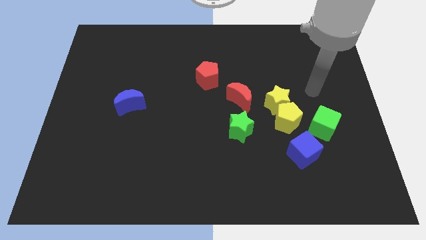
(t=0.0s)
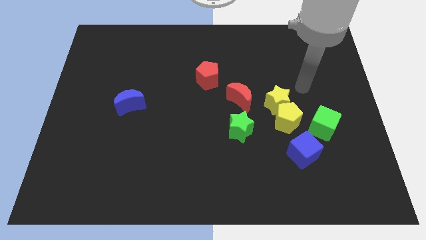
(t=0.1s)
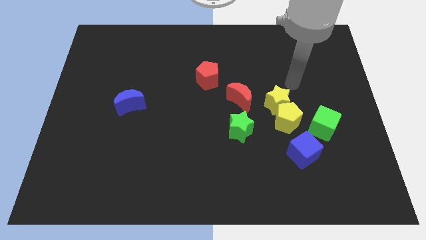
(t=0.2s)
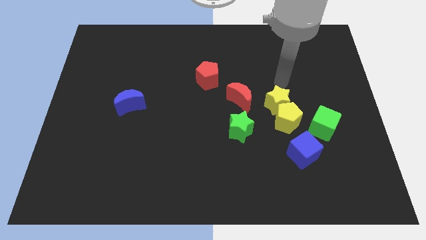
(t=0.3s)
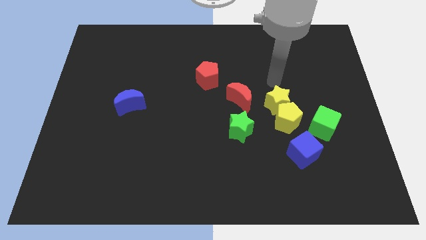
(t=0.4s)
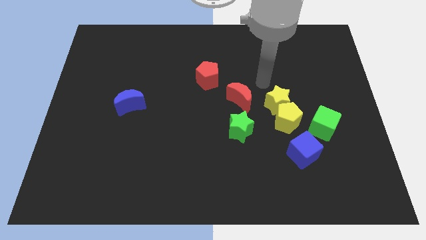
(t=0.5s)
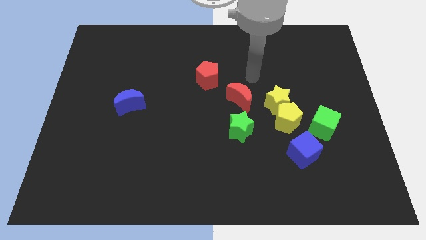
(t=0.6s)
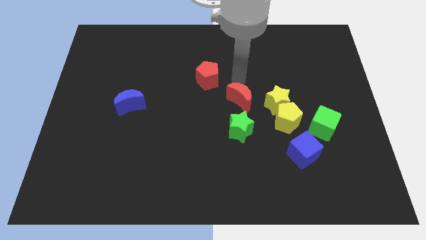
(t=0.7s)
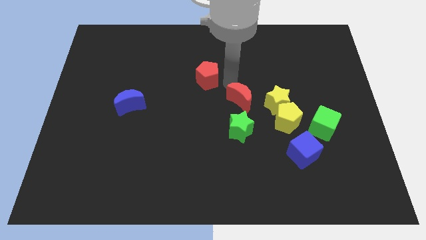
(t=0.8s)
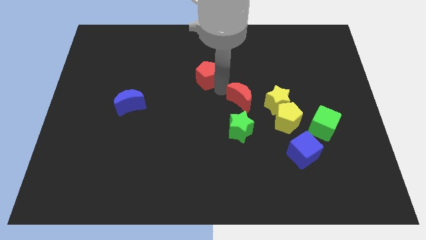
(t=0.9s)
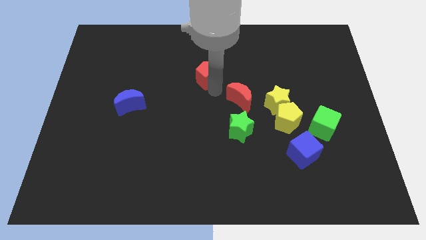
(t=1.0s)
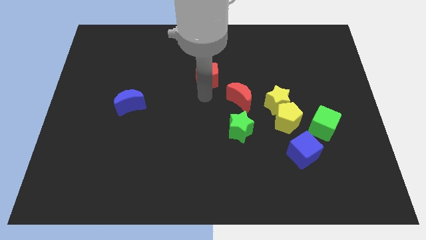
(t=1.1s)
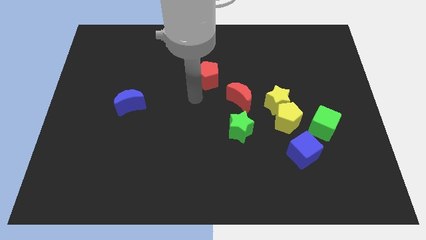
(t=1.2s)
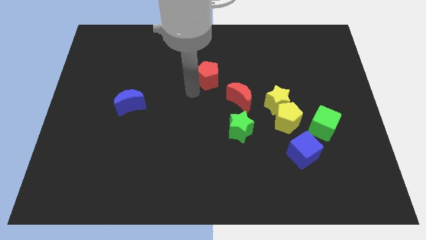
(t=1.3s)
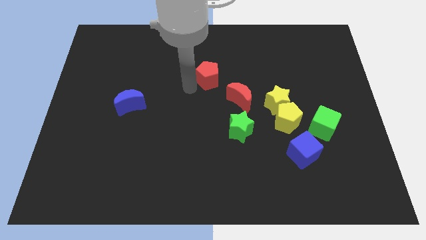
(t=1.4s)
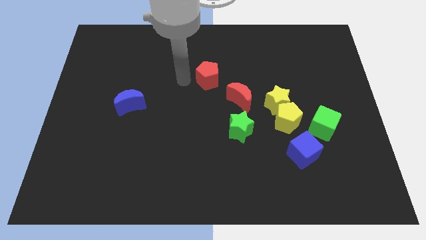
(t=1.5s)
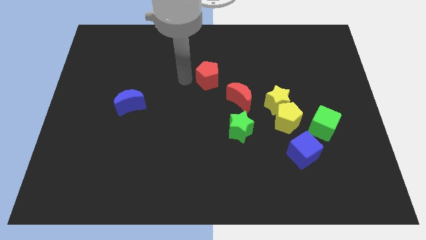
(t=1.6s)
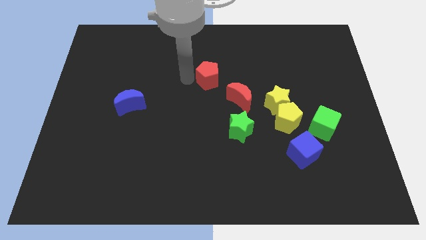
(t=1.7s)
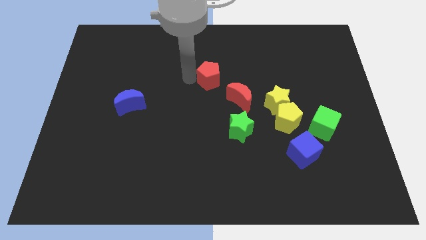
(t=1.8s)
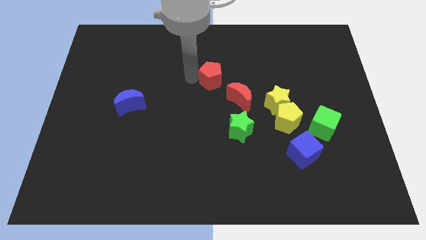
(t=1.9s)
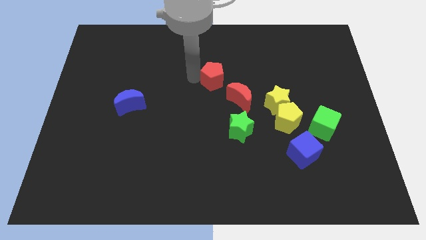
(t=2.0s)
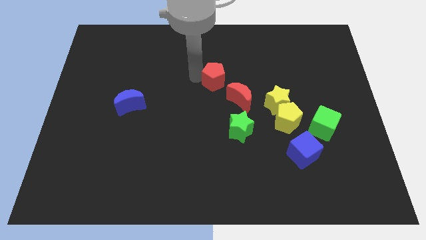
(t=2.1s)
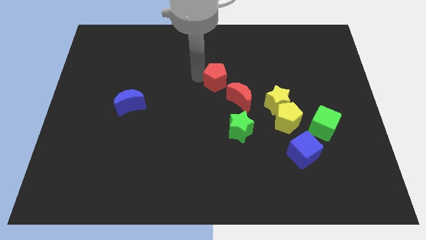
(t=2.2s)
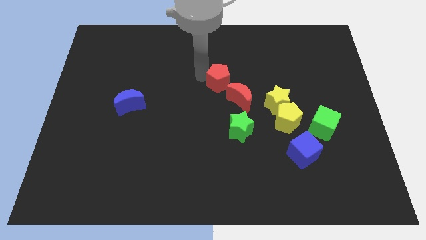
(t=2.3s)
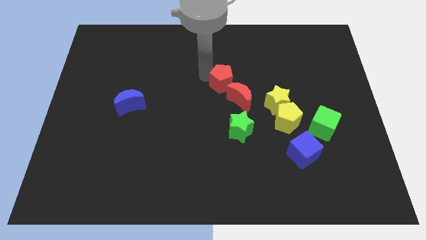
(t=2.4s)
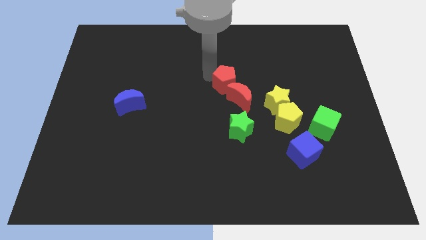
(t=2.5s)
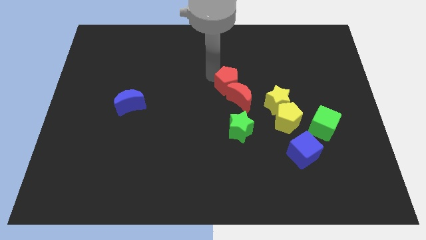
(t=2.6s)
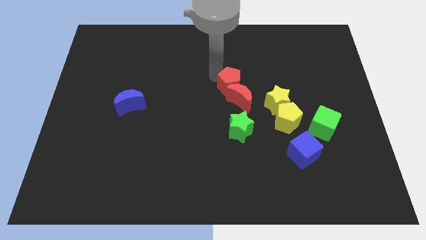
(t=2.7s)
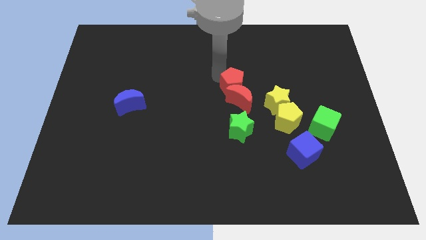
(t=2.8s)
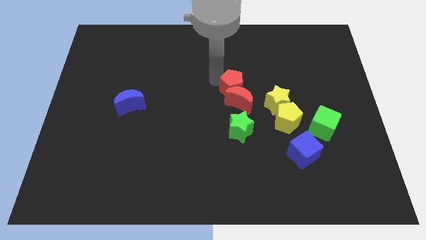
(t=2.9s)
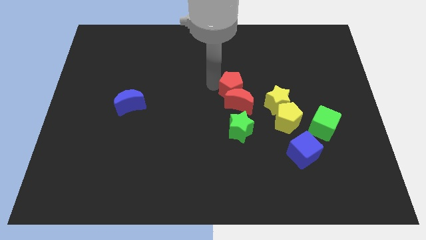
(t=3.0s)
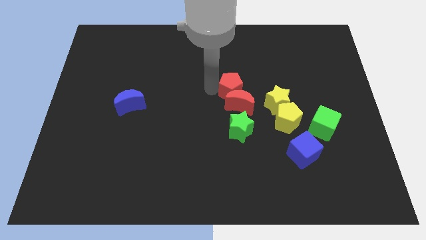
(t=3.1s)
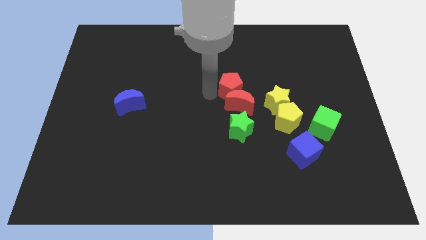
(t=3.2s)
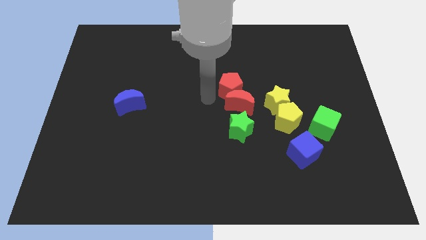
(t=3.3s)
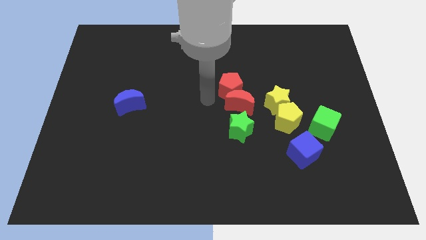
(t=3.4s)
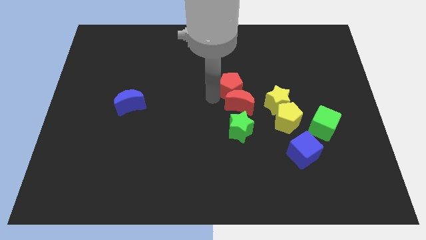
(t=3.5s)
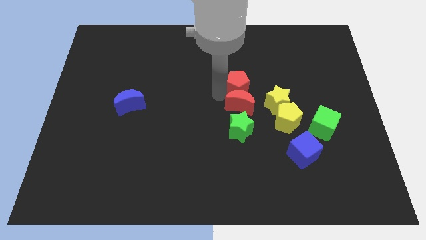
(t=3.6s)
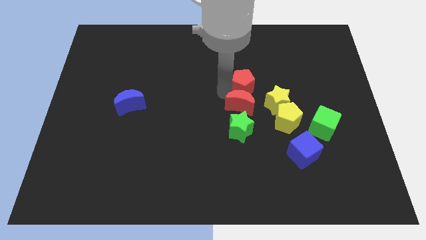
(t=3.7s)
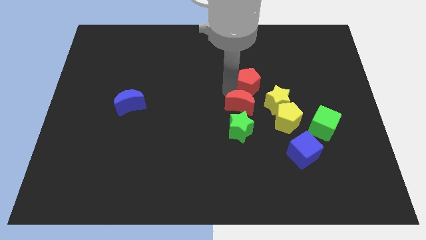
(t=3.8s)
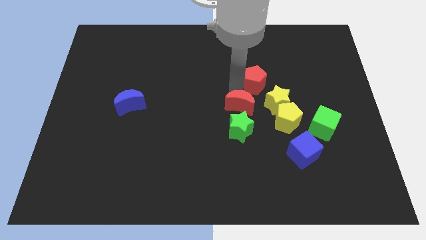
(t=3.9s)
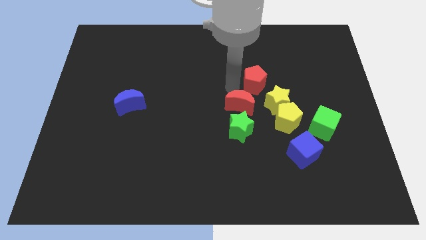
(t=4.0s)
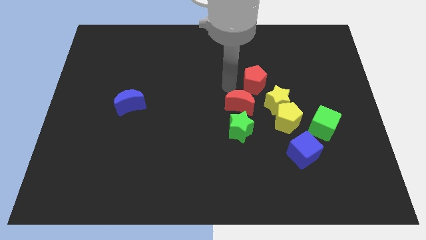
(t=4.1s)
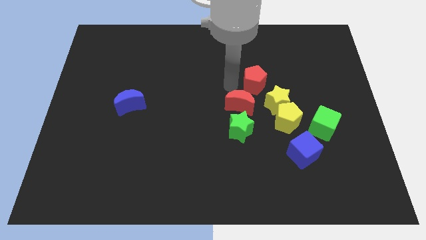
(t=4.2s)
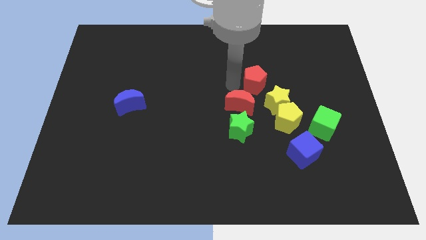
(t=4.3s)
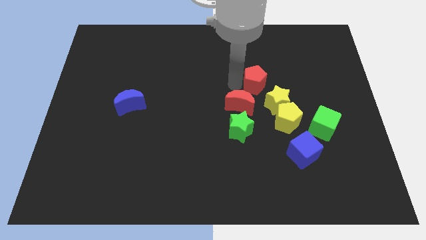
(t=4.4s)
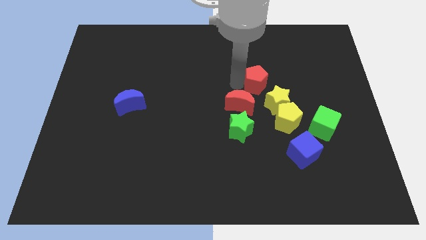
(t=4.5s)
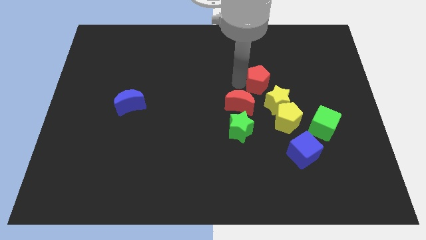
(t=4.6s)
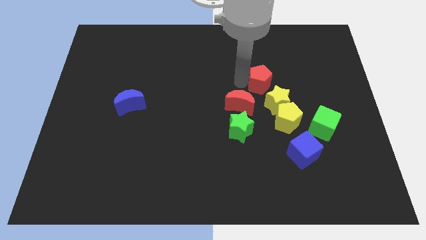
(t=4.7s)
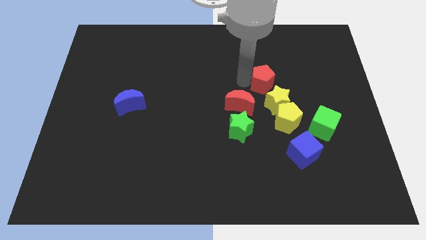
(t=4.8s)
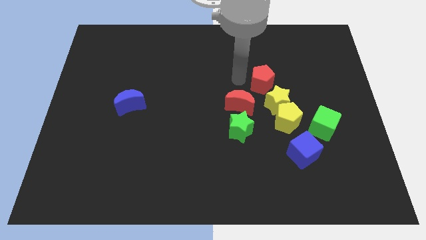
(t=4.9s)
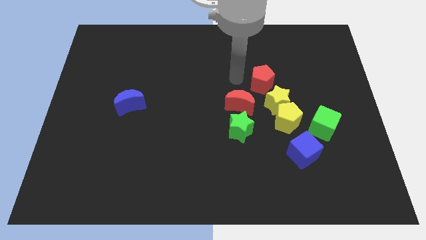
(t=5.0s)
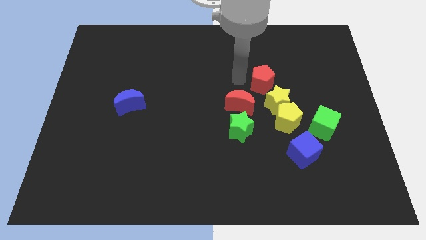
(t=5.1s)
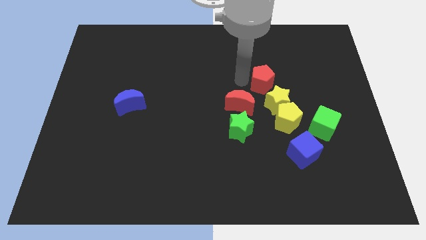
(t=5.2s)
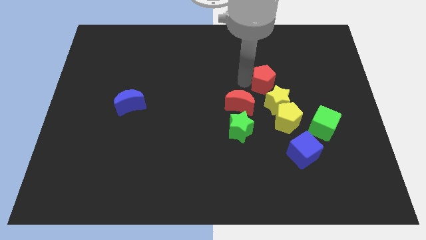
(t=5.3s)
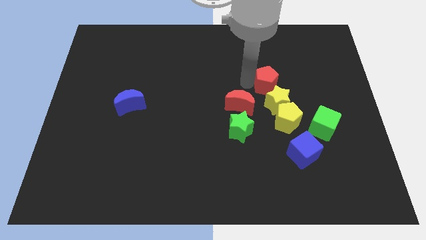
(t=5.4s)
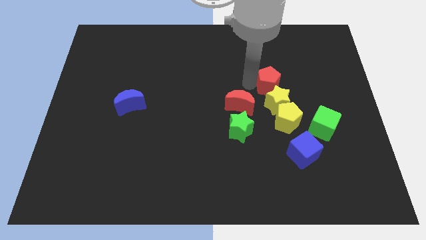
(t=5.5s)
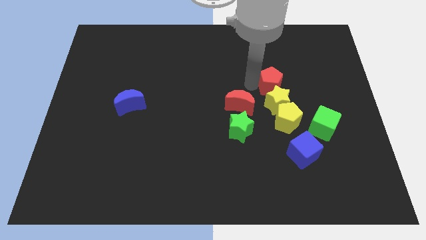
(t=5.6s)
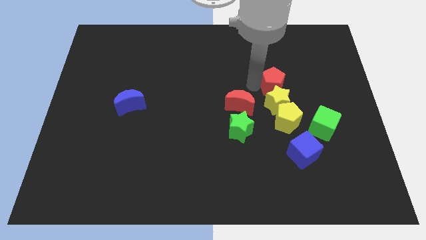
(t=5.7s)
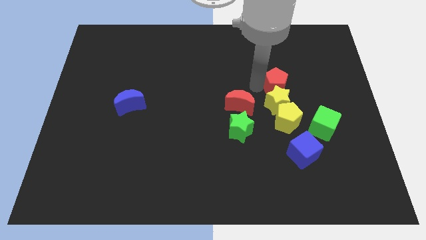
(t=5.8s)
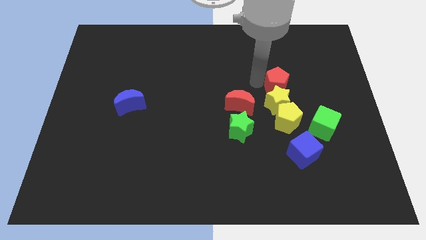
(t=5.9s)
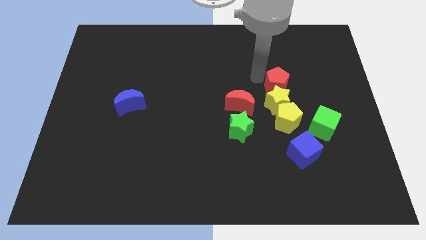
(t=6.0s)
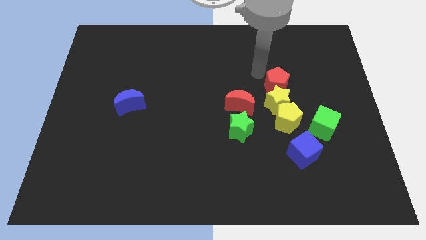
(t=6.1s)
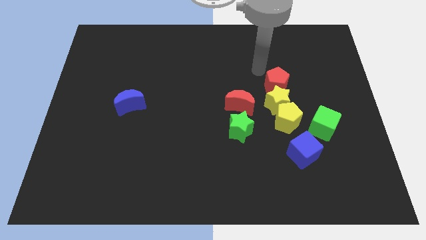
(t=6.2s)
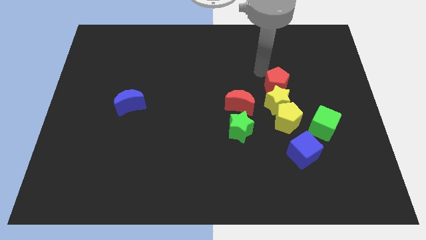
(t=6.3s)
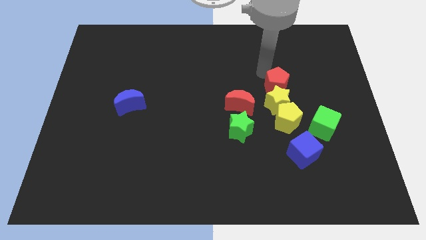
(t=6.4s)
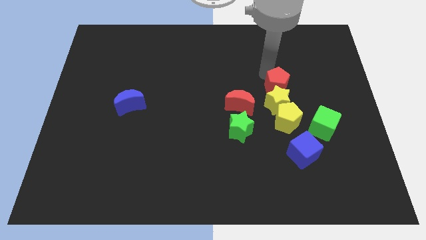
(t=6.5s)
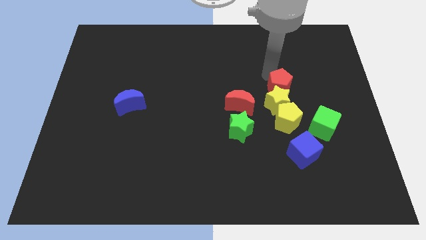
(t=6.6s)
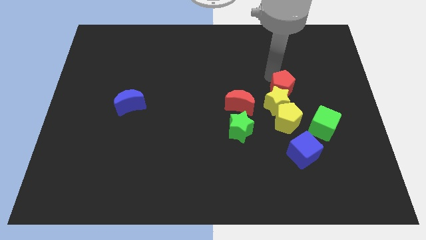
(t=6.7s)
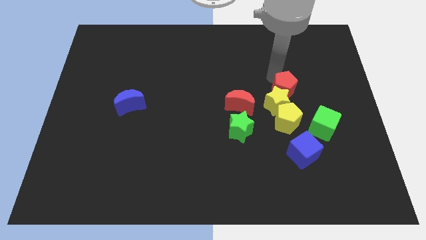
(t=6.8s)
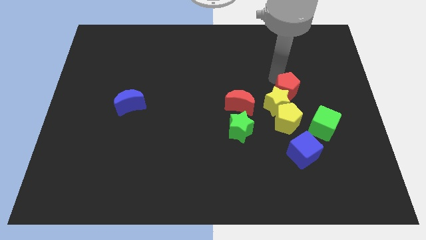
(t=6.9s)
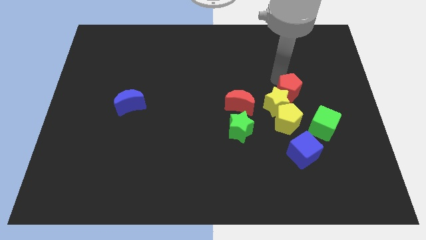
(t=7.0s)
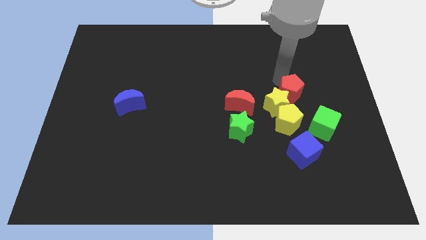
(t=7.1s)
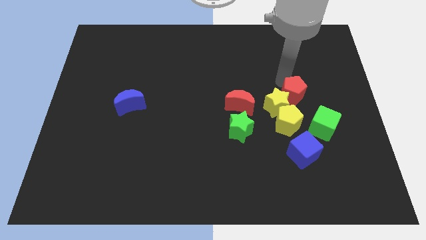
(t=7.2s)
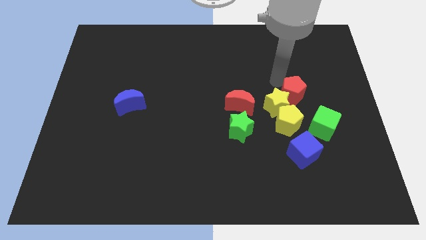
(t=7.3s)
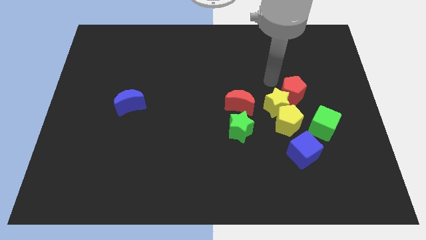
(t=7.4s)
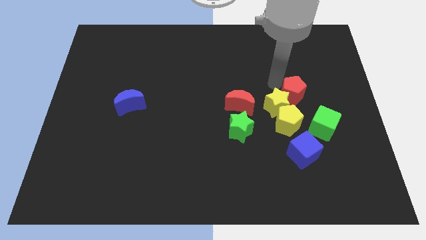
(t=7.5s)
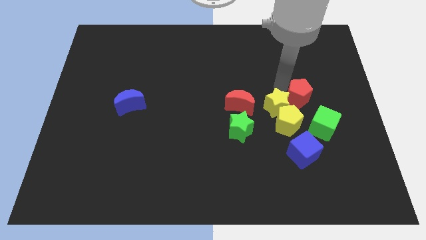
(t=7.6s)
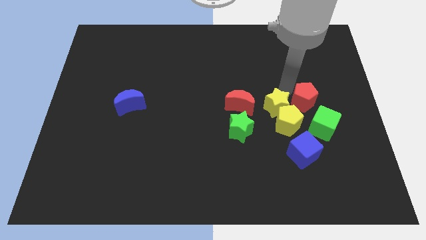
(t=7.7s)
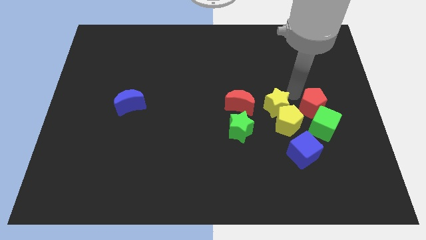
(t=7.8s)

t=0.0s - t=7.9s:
put the red pentagon to the right side of the yellow pentagon
